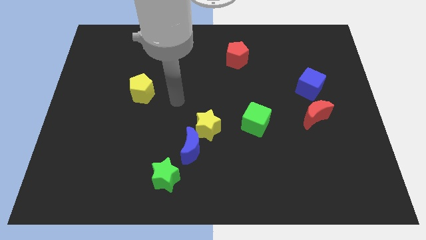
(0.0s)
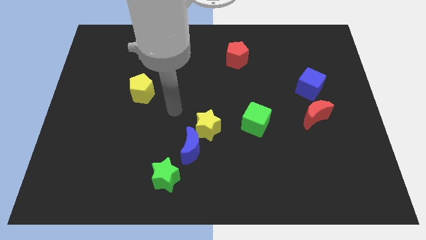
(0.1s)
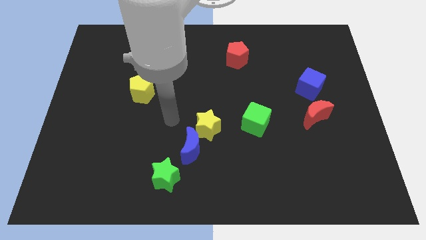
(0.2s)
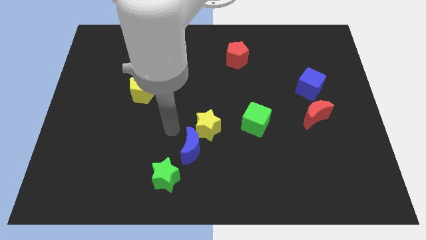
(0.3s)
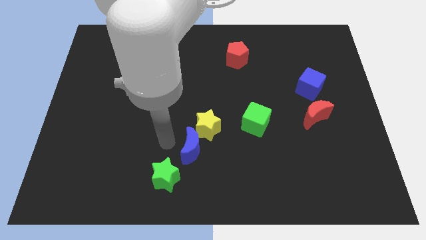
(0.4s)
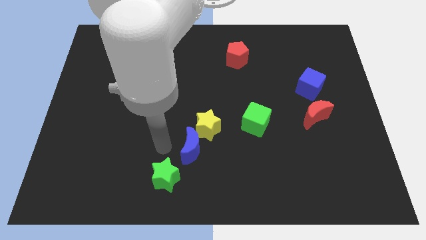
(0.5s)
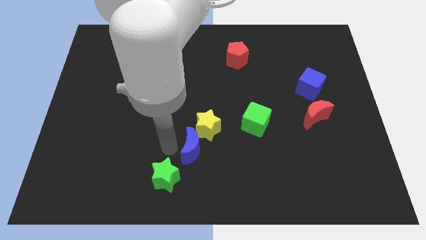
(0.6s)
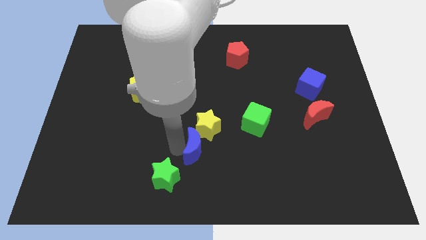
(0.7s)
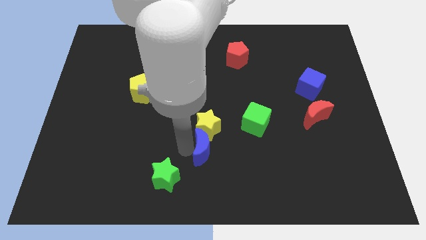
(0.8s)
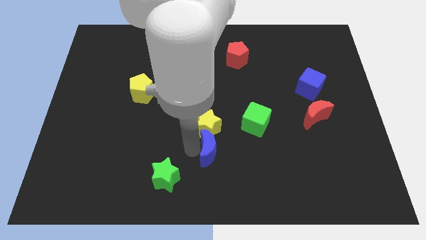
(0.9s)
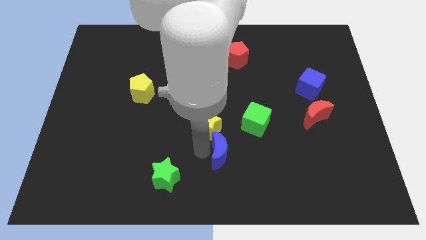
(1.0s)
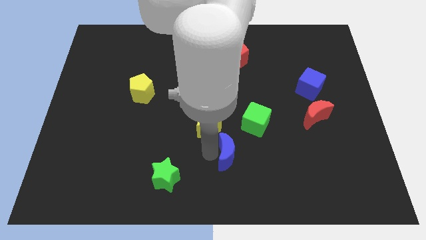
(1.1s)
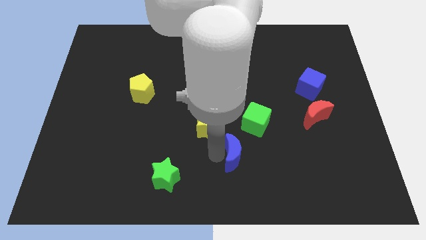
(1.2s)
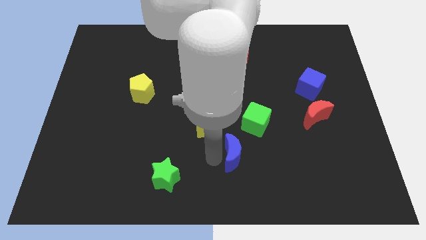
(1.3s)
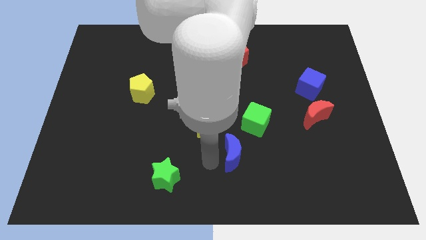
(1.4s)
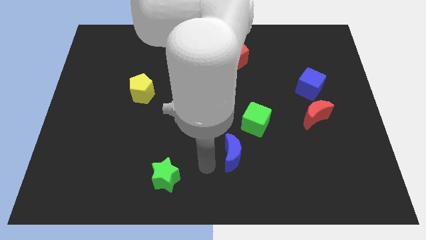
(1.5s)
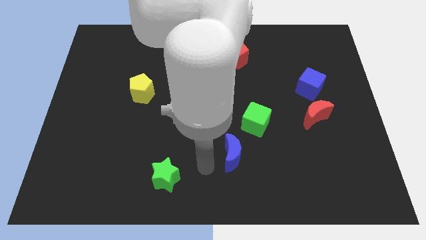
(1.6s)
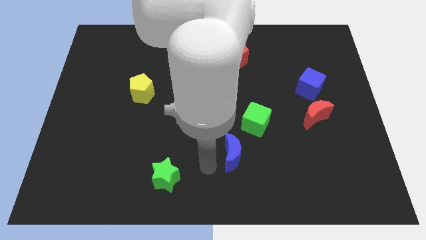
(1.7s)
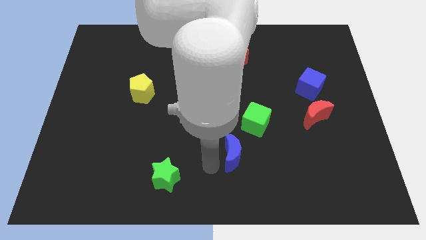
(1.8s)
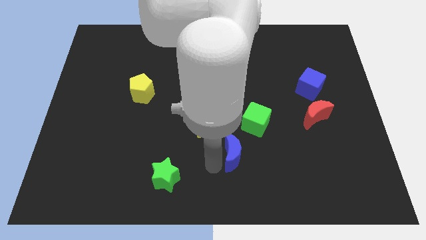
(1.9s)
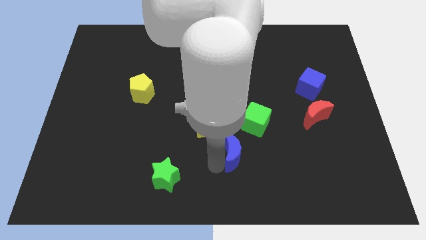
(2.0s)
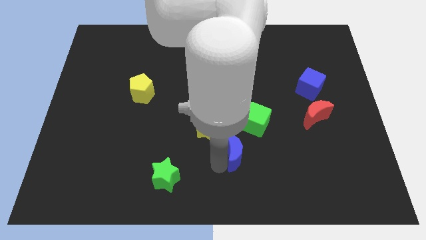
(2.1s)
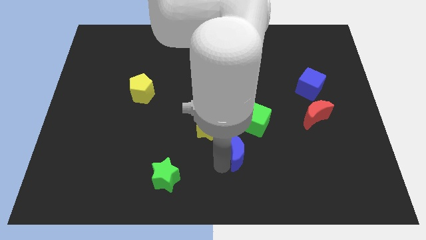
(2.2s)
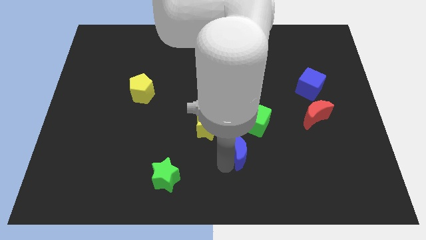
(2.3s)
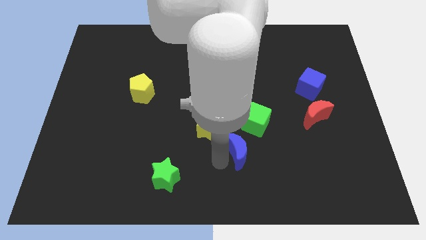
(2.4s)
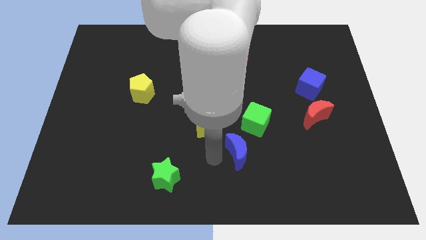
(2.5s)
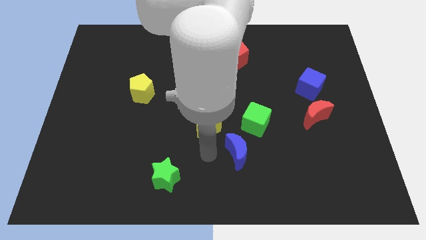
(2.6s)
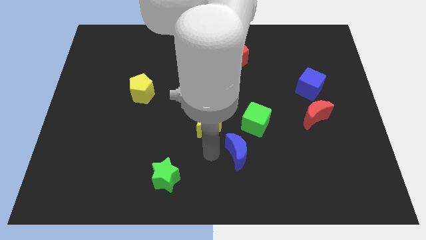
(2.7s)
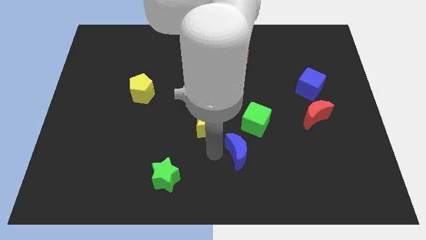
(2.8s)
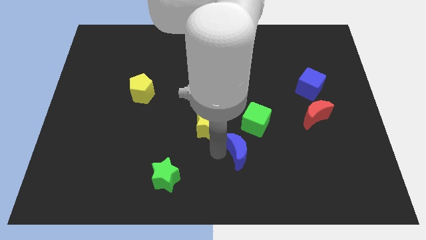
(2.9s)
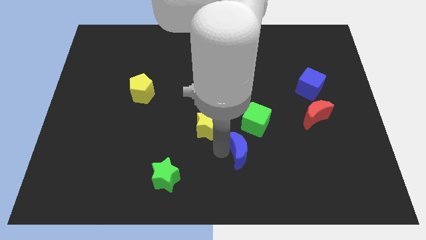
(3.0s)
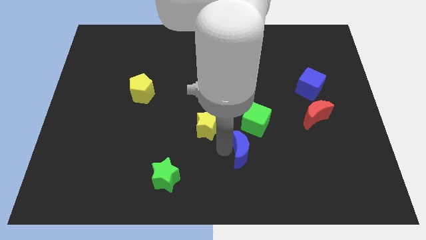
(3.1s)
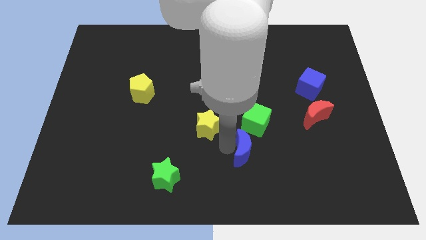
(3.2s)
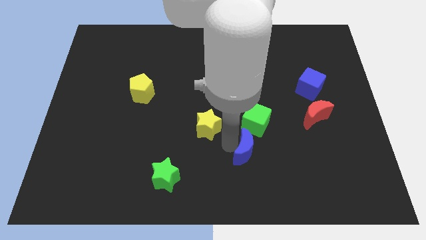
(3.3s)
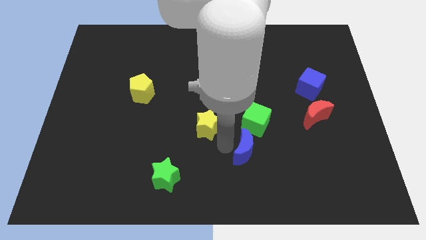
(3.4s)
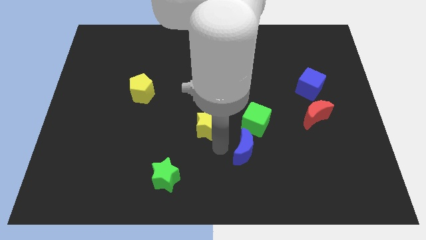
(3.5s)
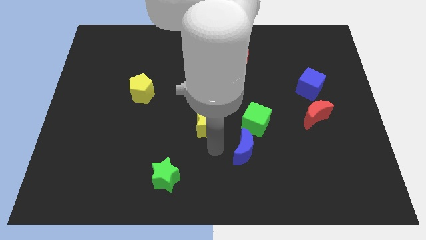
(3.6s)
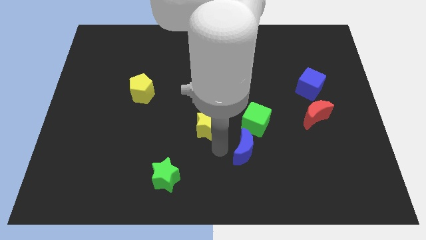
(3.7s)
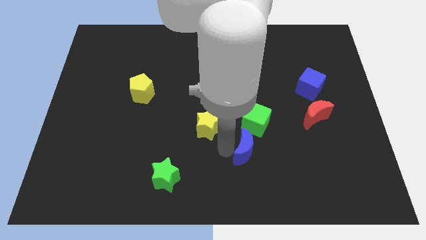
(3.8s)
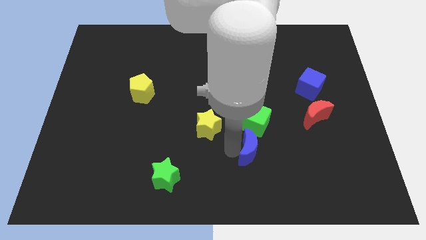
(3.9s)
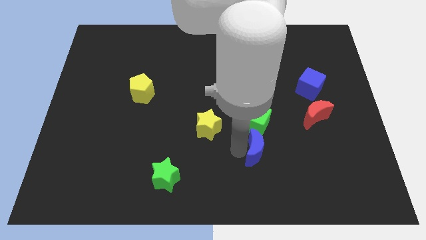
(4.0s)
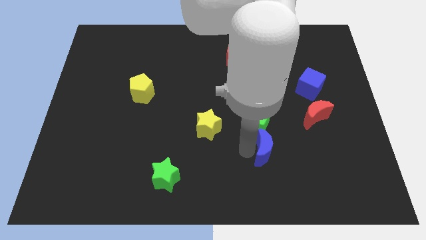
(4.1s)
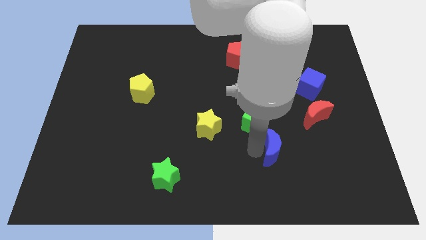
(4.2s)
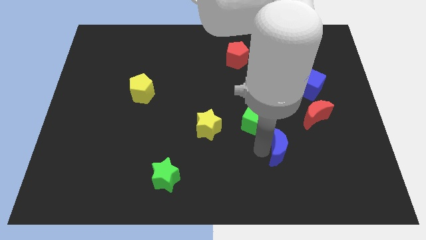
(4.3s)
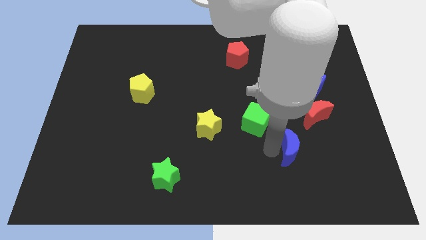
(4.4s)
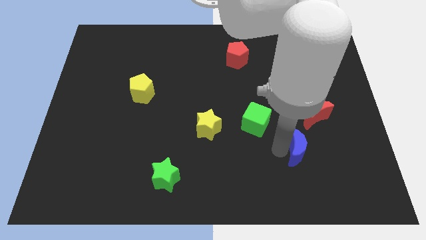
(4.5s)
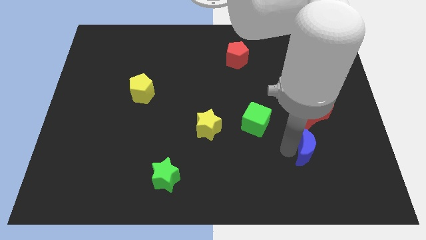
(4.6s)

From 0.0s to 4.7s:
push the blue moon to the bottom side of the red moon

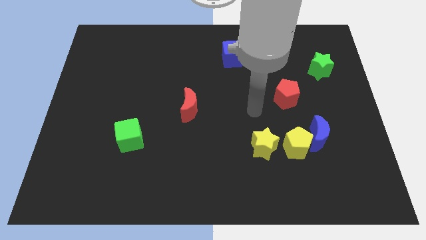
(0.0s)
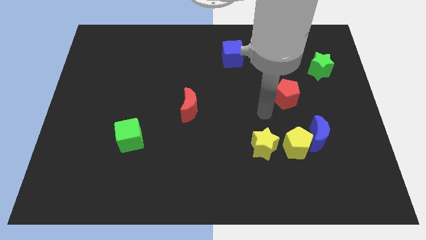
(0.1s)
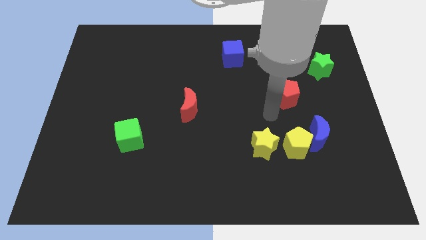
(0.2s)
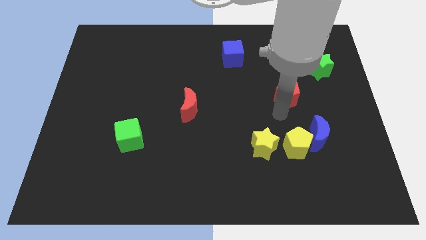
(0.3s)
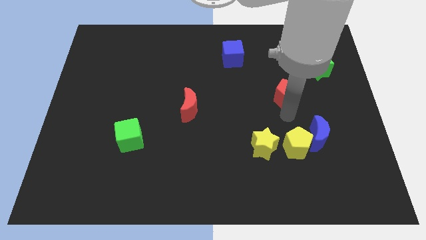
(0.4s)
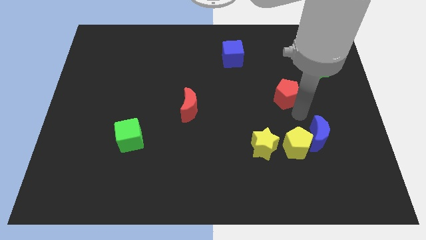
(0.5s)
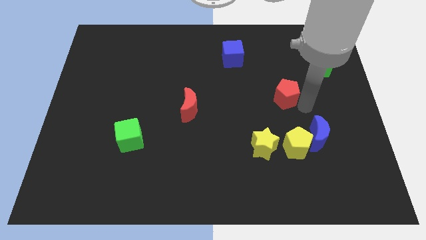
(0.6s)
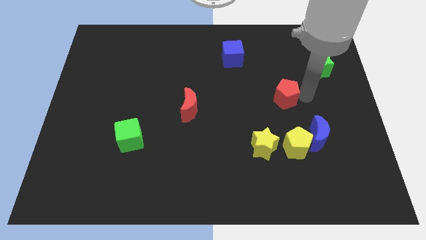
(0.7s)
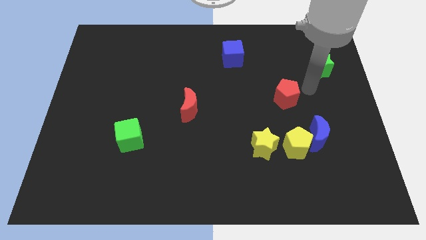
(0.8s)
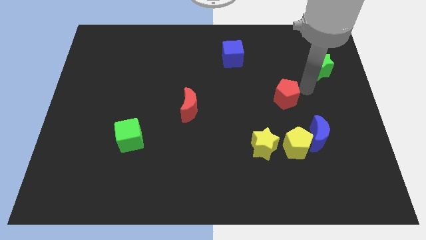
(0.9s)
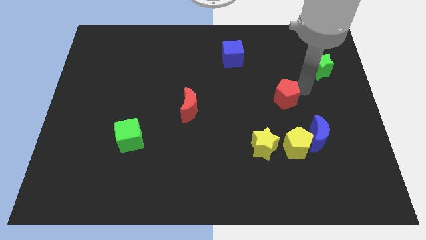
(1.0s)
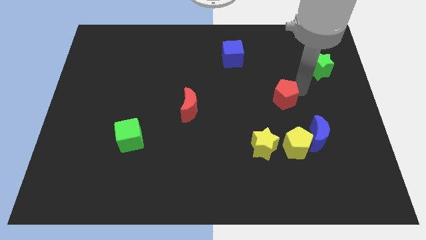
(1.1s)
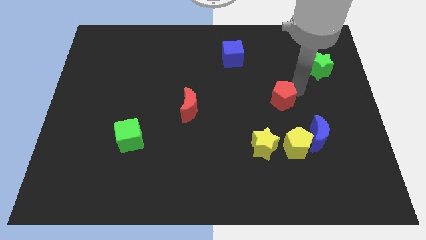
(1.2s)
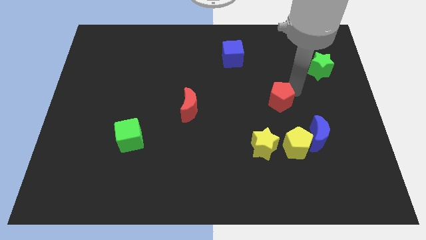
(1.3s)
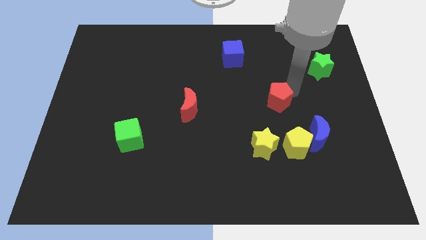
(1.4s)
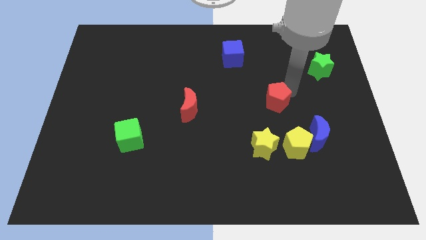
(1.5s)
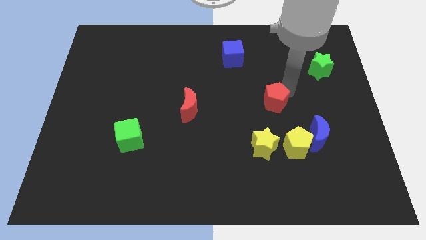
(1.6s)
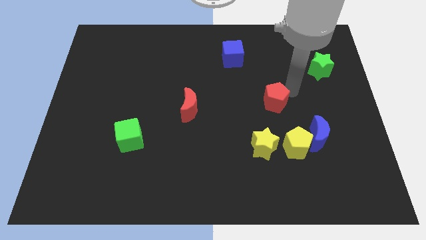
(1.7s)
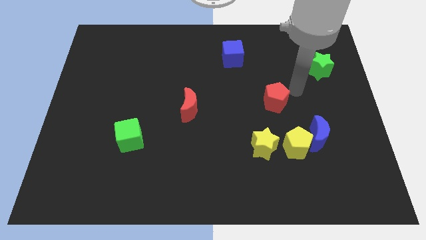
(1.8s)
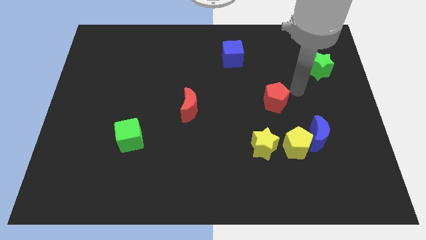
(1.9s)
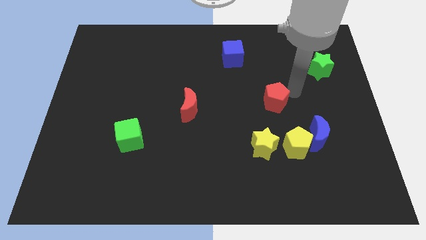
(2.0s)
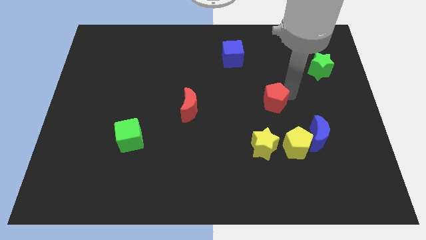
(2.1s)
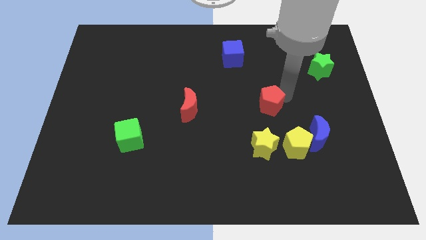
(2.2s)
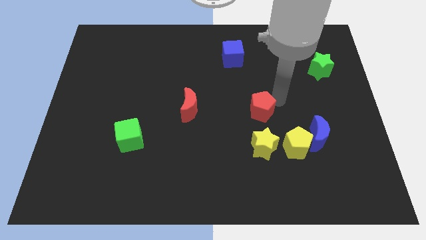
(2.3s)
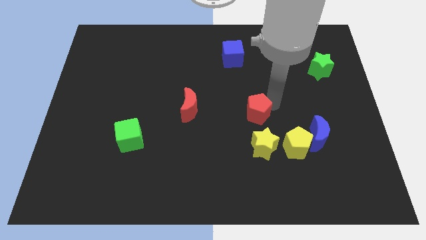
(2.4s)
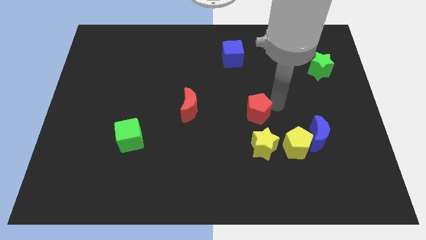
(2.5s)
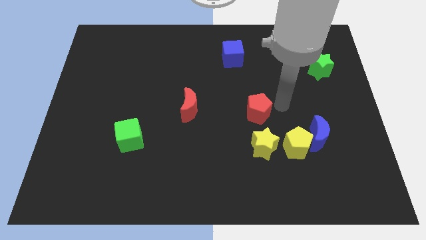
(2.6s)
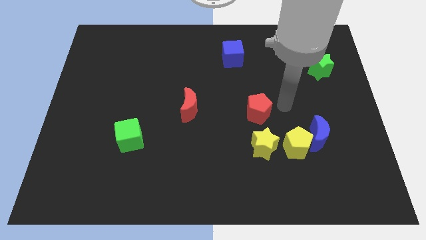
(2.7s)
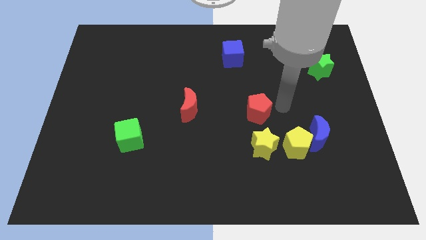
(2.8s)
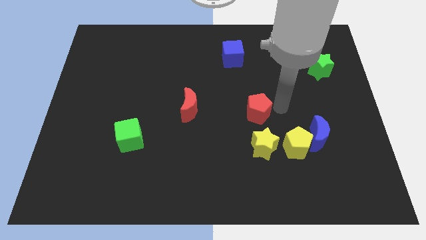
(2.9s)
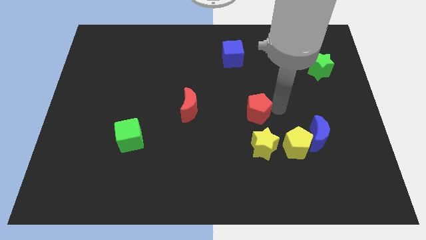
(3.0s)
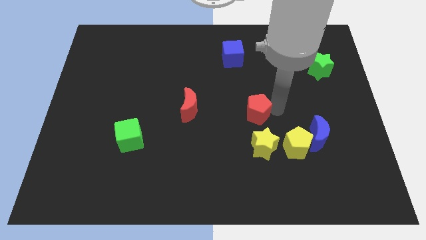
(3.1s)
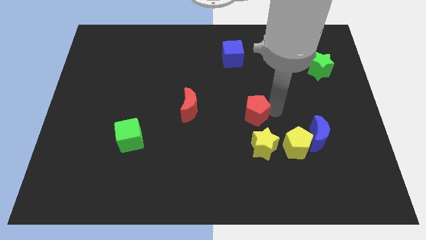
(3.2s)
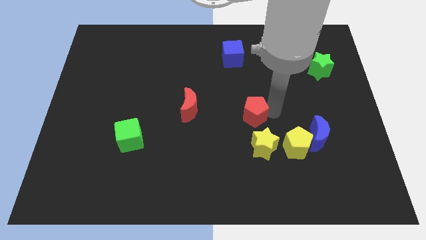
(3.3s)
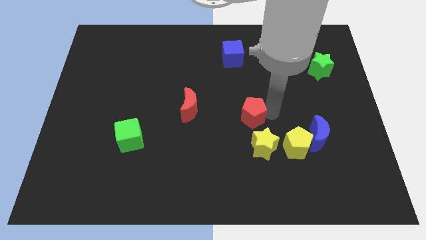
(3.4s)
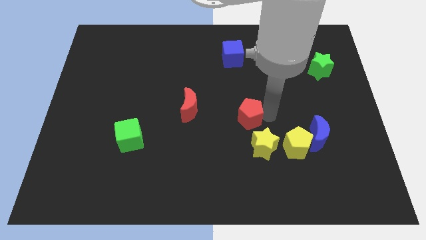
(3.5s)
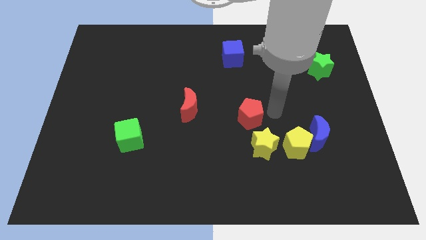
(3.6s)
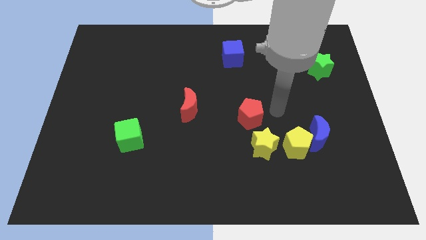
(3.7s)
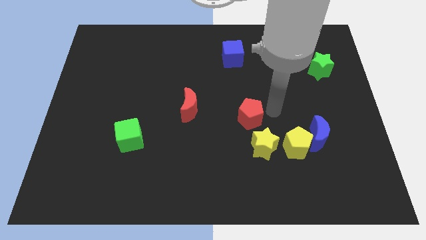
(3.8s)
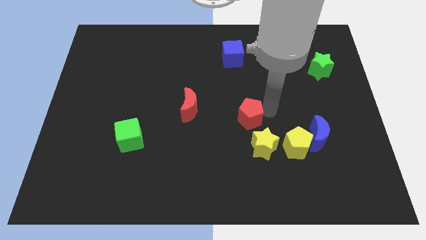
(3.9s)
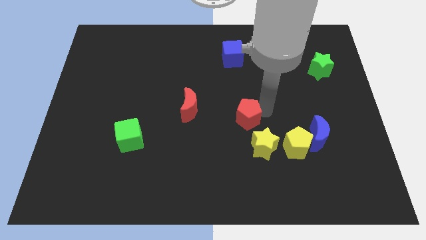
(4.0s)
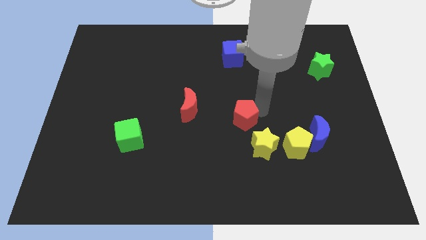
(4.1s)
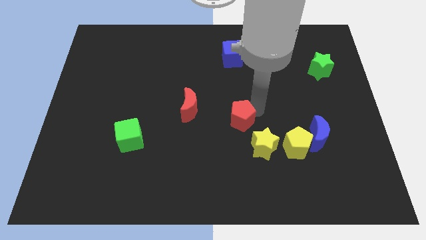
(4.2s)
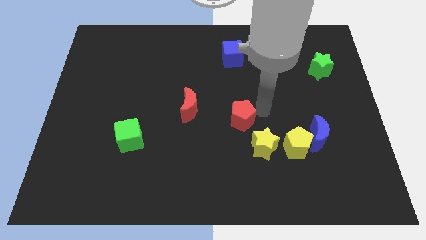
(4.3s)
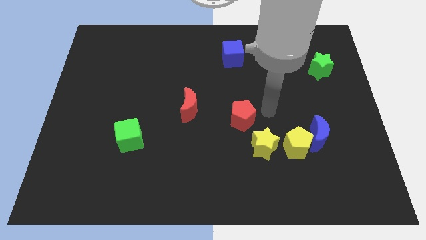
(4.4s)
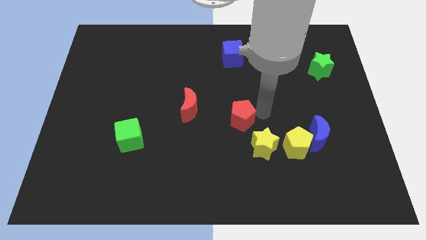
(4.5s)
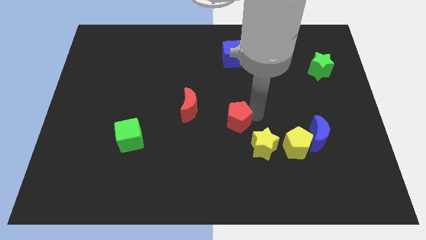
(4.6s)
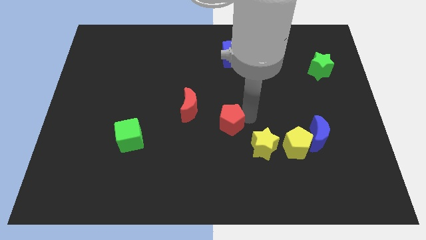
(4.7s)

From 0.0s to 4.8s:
slide the red pentagon to the bottom right of the red moon
